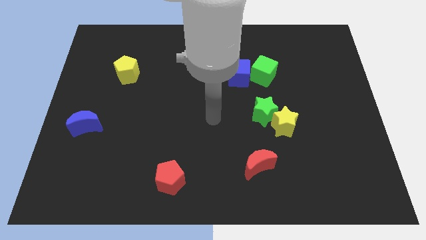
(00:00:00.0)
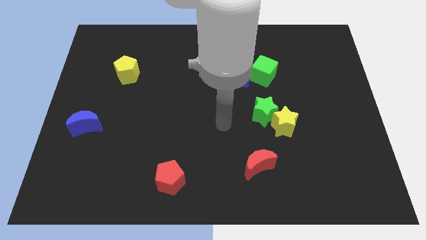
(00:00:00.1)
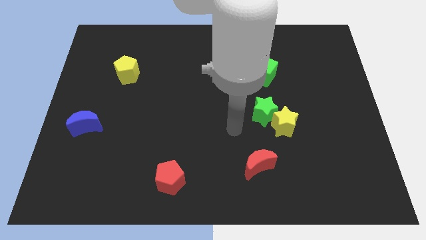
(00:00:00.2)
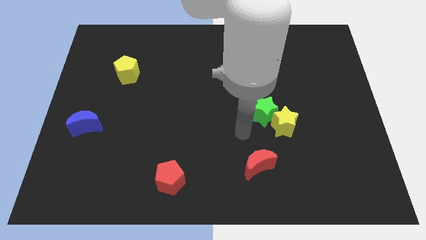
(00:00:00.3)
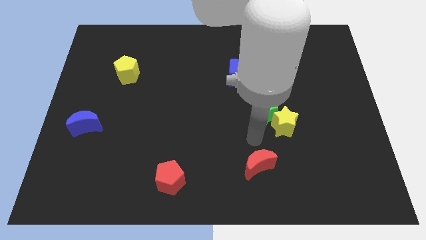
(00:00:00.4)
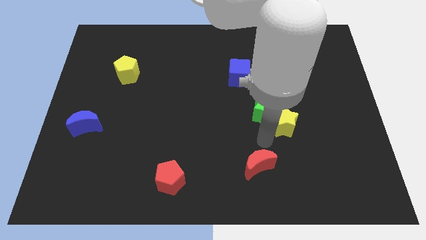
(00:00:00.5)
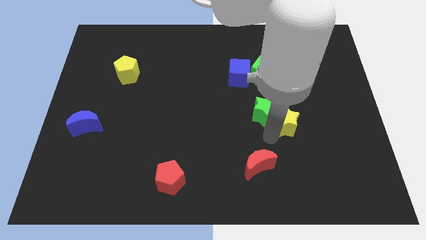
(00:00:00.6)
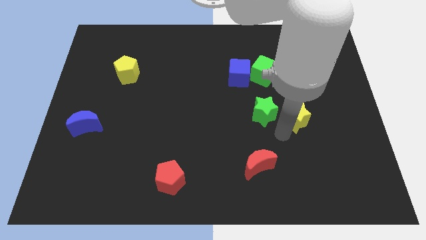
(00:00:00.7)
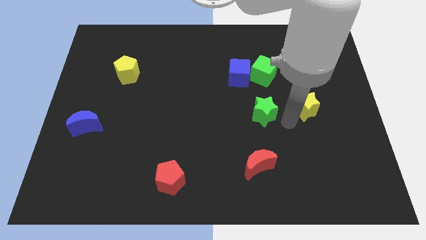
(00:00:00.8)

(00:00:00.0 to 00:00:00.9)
pull the green star apart from the yellow star

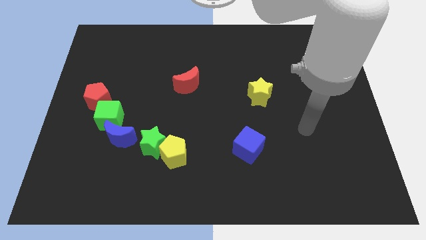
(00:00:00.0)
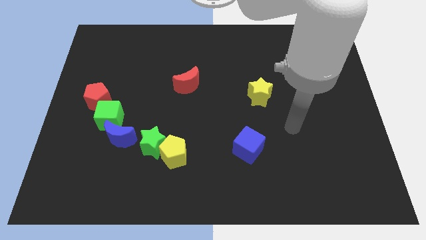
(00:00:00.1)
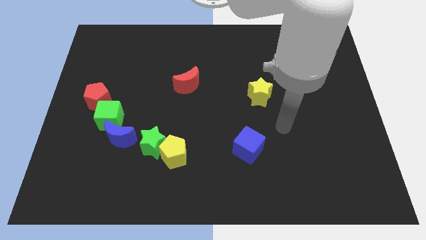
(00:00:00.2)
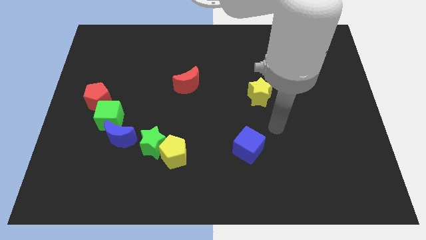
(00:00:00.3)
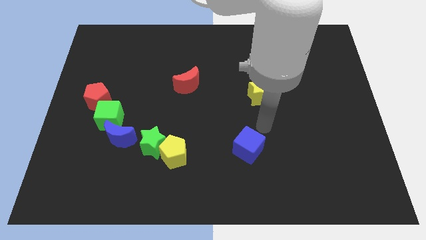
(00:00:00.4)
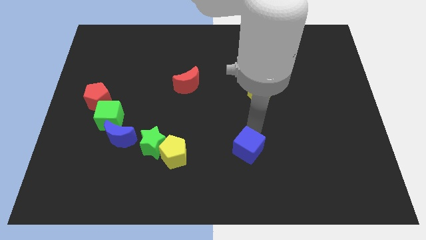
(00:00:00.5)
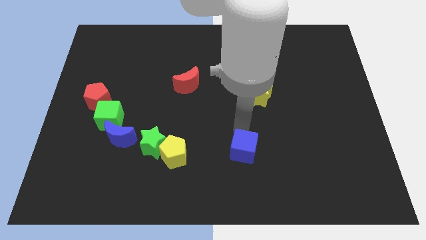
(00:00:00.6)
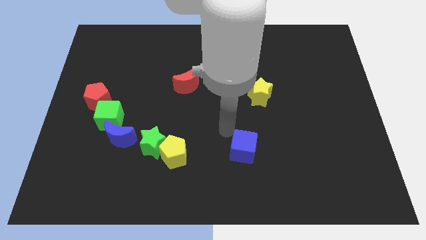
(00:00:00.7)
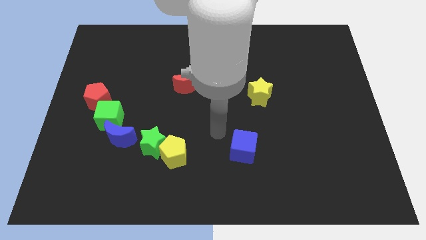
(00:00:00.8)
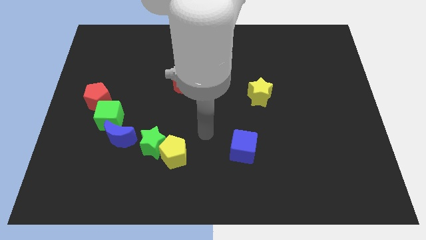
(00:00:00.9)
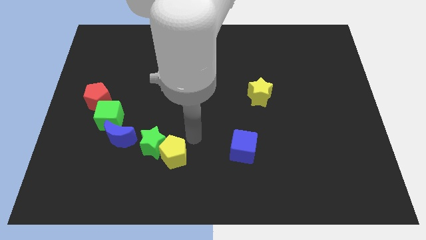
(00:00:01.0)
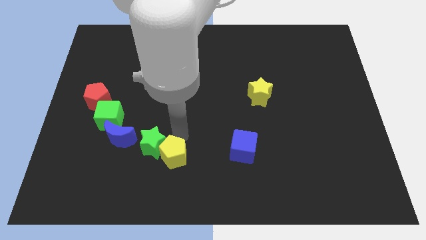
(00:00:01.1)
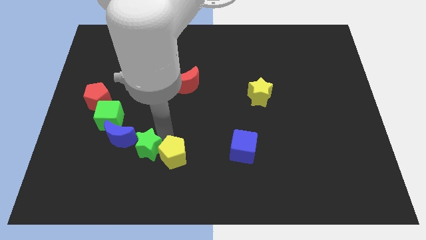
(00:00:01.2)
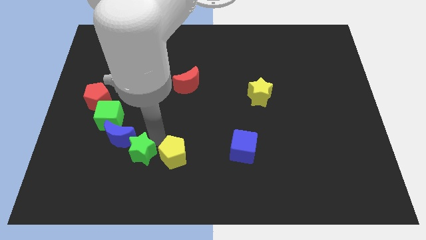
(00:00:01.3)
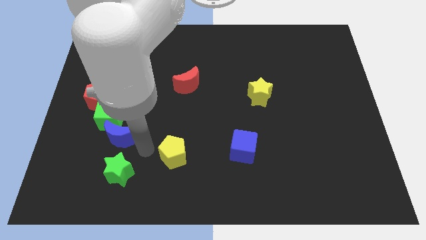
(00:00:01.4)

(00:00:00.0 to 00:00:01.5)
pull the yellow pentagon apart from the green star

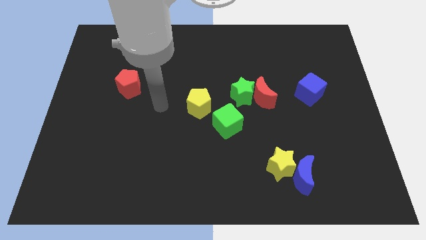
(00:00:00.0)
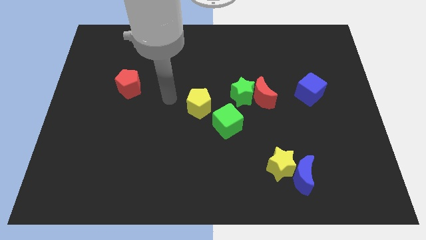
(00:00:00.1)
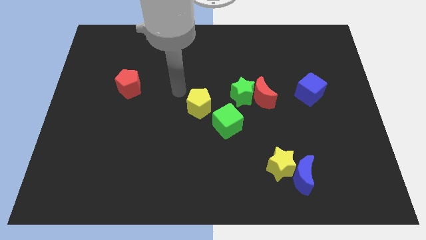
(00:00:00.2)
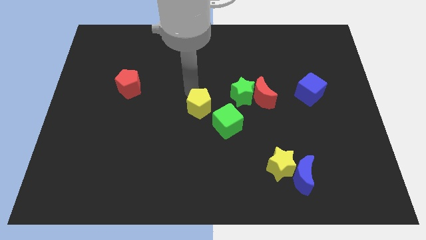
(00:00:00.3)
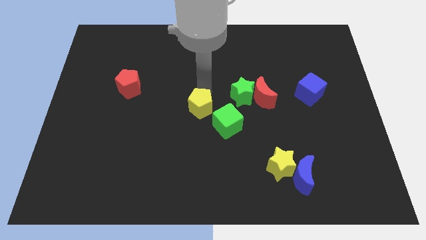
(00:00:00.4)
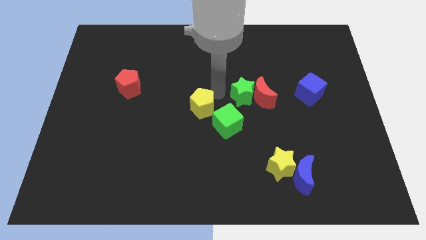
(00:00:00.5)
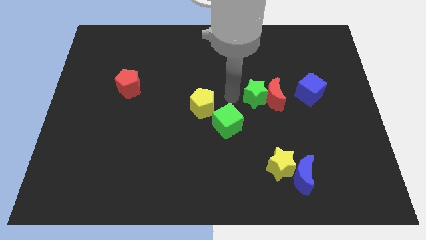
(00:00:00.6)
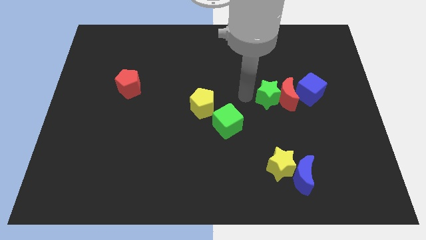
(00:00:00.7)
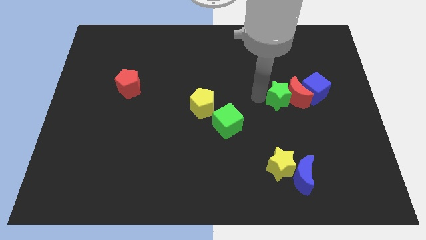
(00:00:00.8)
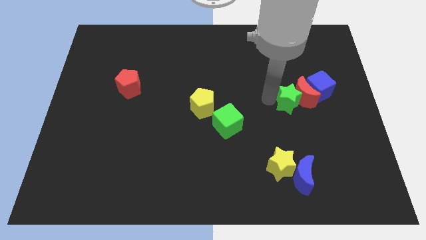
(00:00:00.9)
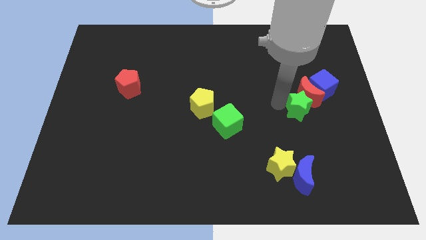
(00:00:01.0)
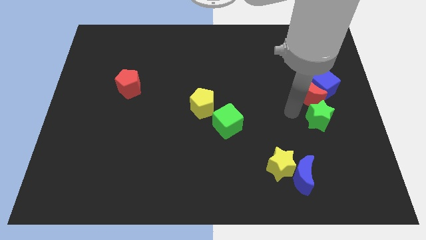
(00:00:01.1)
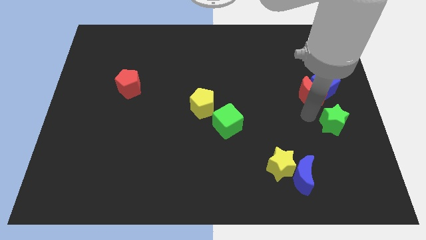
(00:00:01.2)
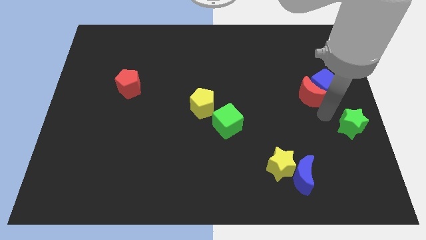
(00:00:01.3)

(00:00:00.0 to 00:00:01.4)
pull the red moon apart from the green star

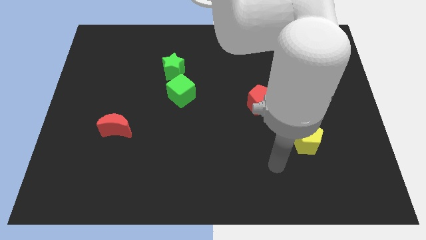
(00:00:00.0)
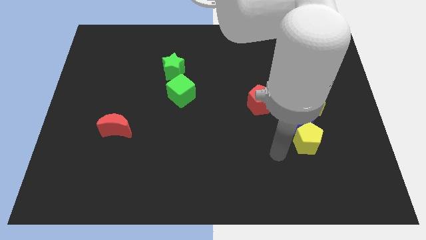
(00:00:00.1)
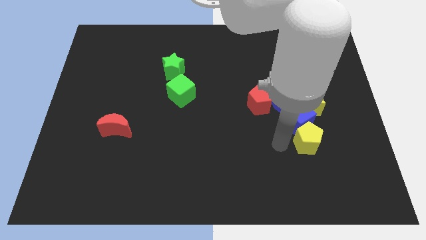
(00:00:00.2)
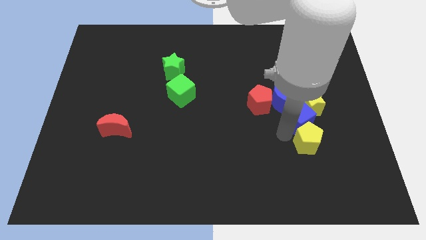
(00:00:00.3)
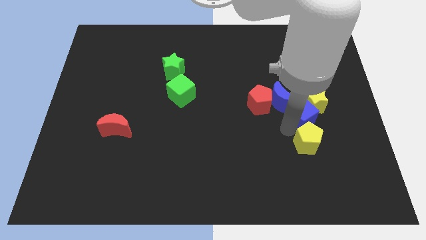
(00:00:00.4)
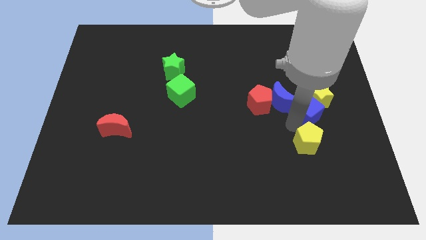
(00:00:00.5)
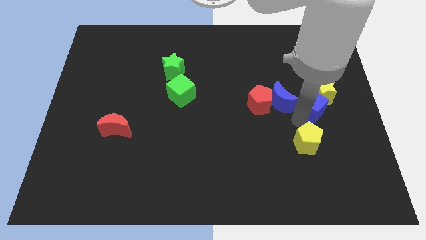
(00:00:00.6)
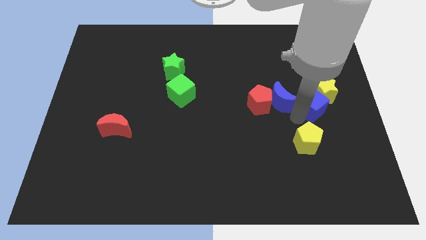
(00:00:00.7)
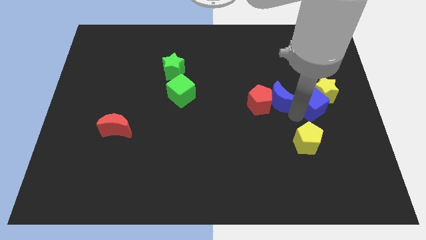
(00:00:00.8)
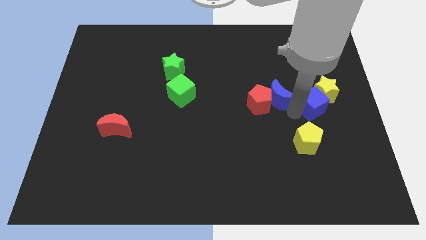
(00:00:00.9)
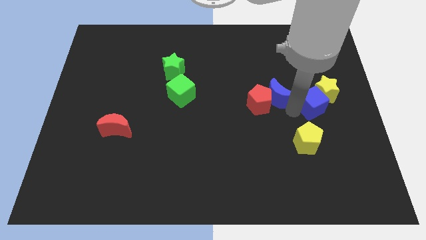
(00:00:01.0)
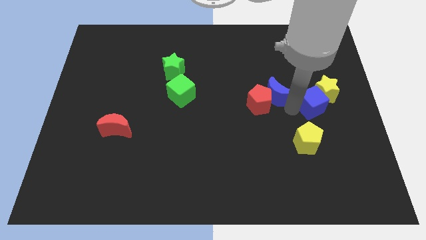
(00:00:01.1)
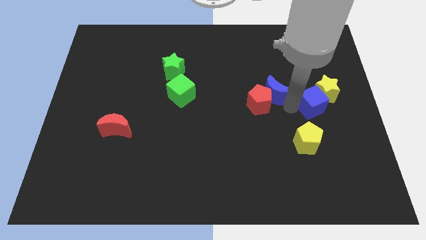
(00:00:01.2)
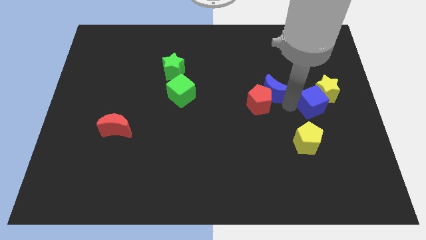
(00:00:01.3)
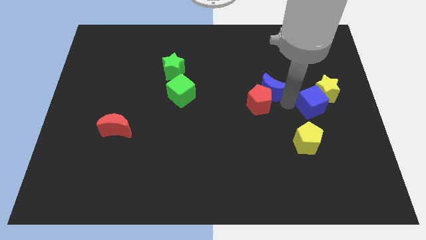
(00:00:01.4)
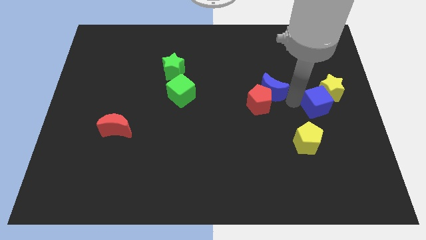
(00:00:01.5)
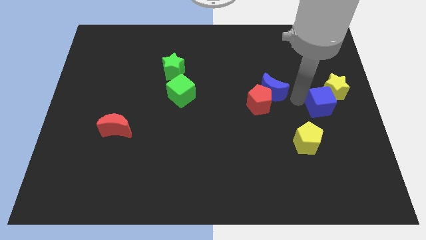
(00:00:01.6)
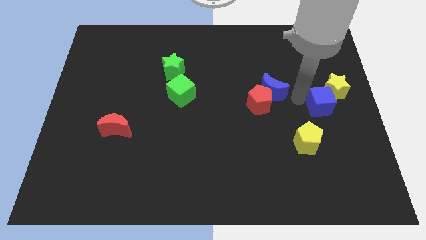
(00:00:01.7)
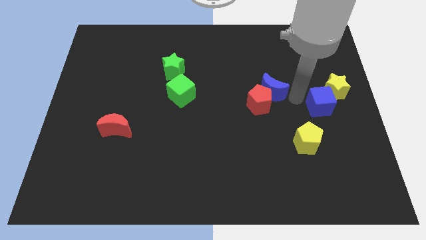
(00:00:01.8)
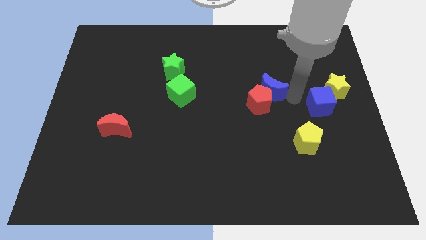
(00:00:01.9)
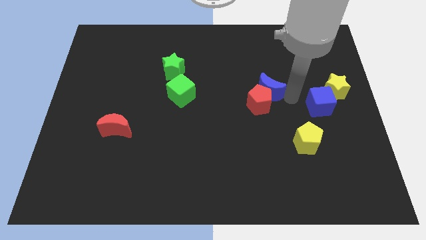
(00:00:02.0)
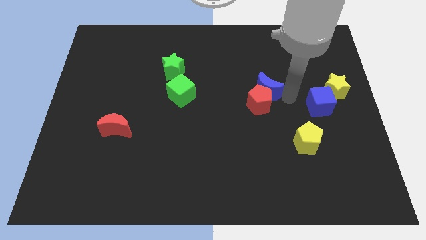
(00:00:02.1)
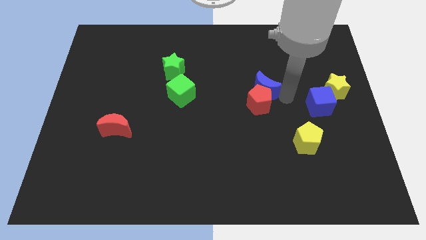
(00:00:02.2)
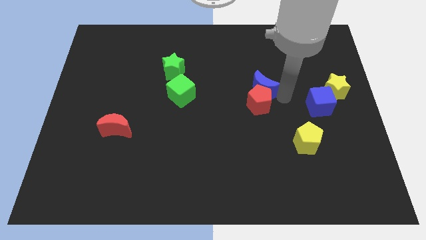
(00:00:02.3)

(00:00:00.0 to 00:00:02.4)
separate the blue moon from the red pentagon, blue cube, and yellow star

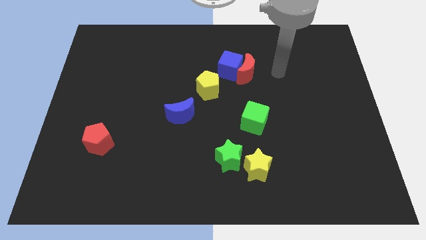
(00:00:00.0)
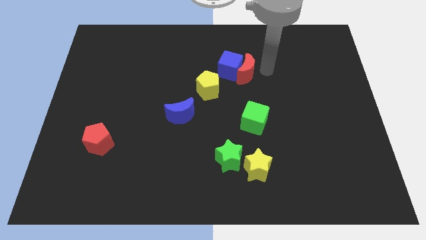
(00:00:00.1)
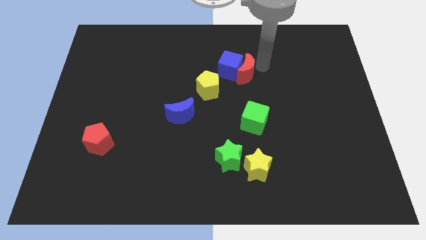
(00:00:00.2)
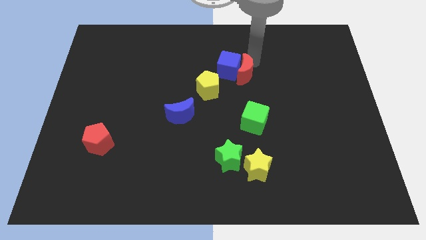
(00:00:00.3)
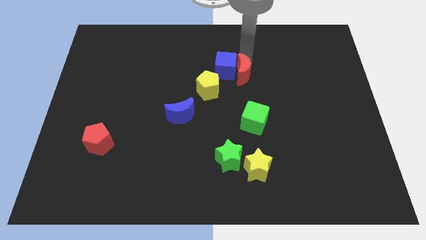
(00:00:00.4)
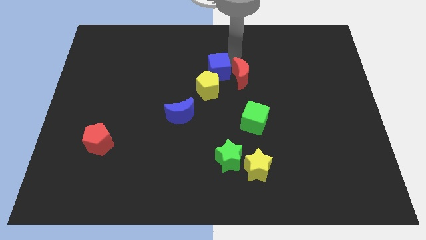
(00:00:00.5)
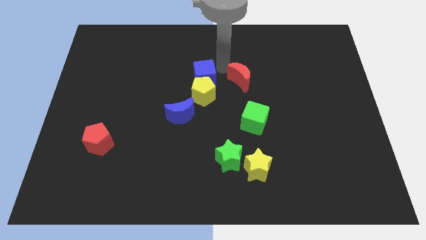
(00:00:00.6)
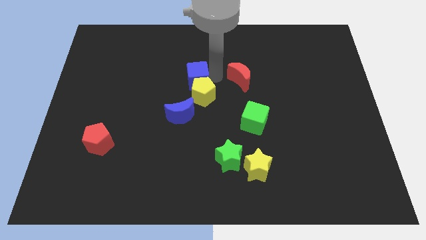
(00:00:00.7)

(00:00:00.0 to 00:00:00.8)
separate the red moon from the blue cube

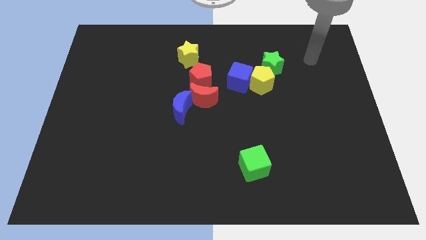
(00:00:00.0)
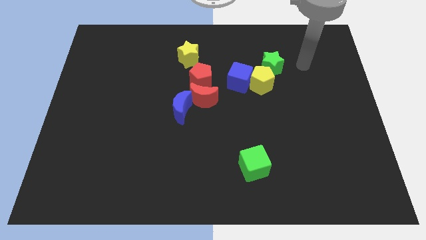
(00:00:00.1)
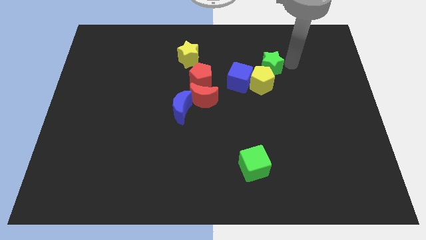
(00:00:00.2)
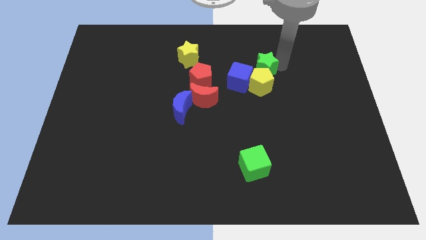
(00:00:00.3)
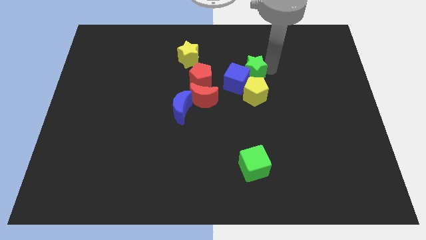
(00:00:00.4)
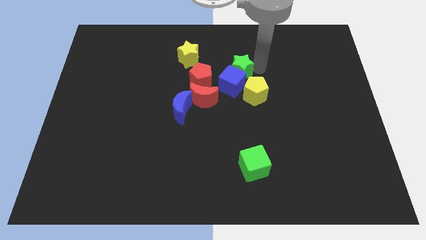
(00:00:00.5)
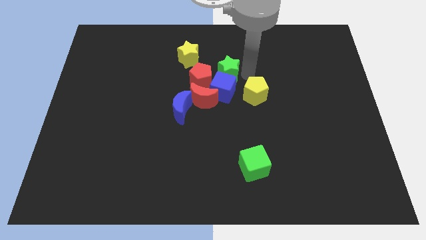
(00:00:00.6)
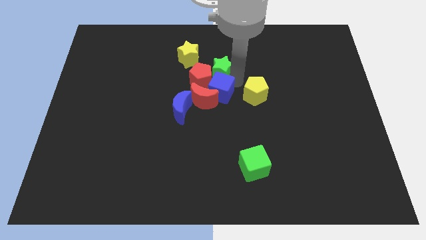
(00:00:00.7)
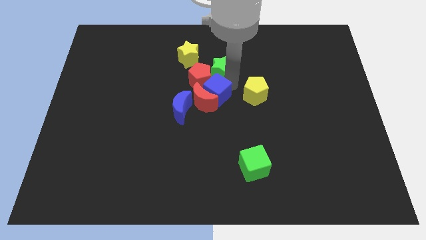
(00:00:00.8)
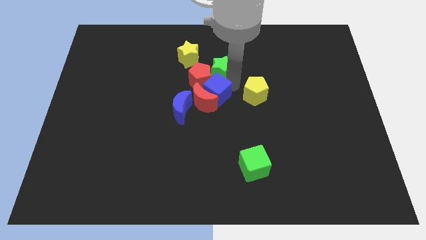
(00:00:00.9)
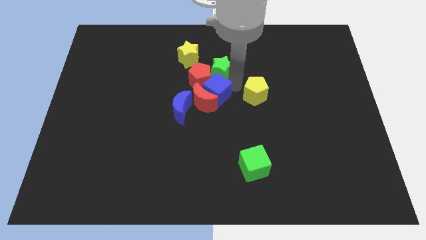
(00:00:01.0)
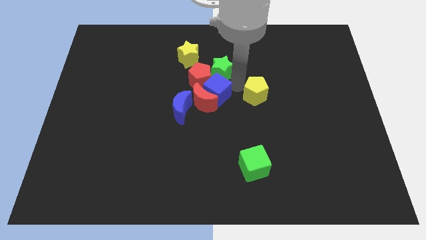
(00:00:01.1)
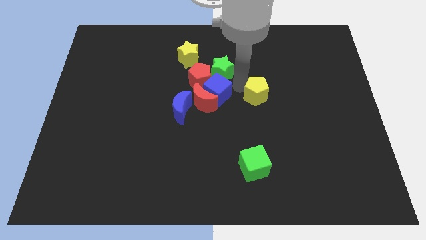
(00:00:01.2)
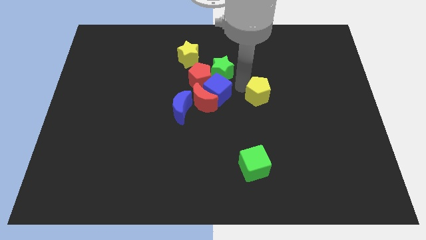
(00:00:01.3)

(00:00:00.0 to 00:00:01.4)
separate the yellow pentagon from the blue cube and green star

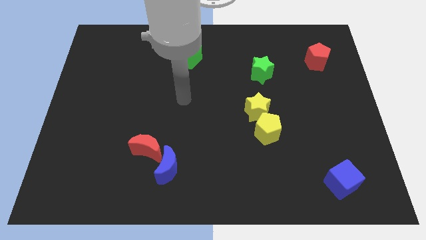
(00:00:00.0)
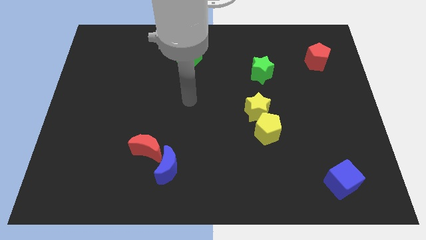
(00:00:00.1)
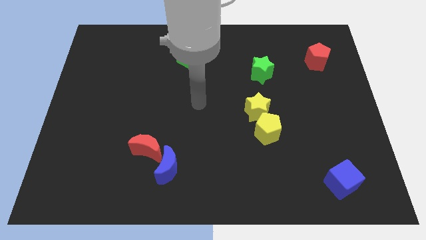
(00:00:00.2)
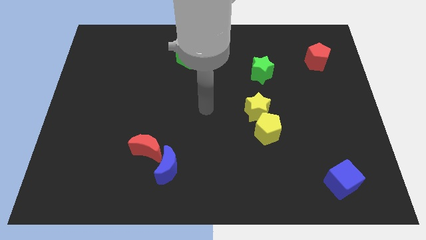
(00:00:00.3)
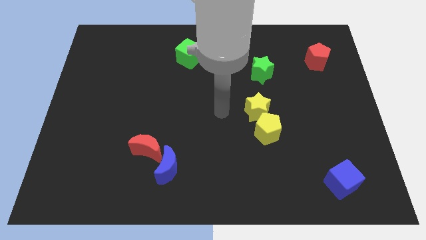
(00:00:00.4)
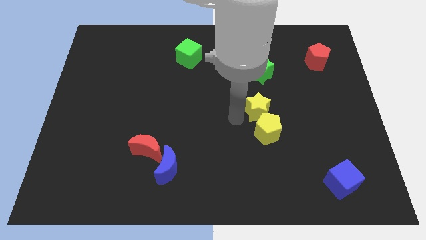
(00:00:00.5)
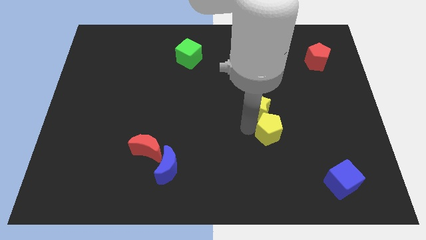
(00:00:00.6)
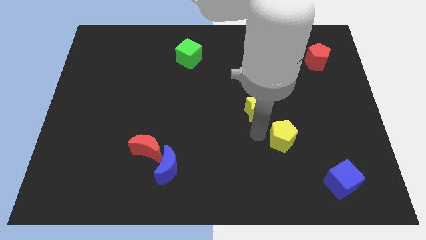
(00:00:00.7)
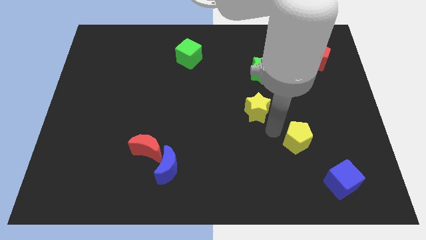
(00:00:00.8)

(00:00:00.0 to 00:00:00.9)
pull the yellow star apart from the yellow pentagon
